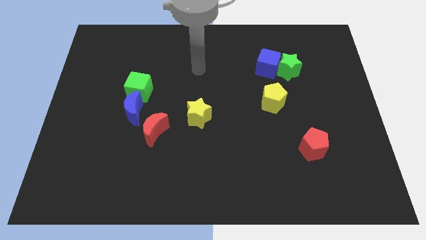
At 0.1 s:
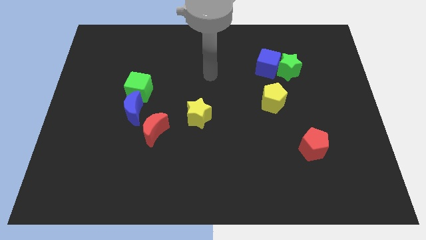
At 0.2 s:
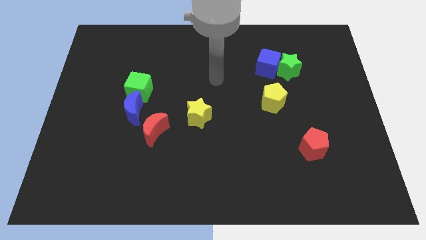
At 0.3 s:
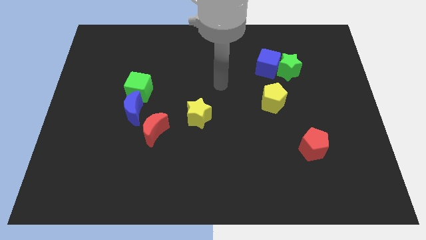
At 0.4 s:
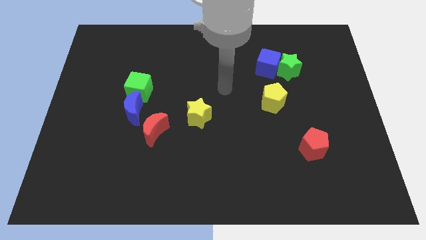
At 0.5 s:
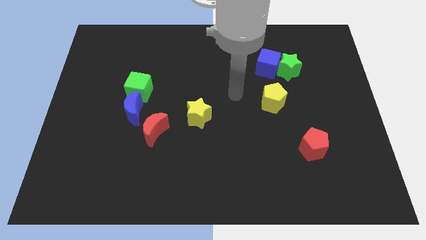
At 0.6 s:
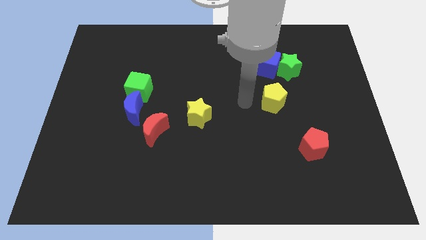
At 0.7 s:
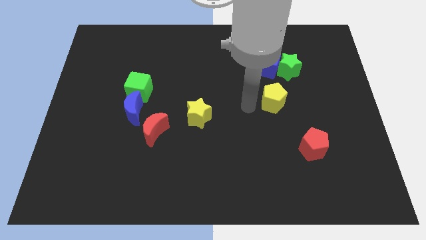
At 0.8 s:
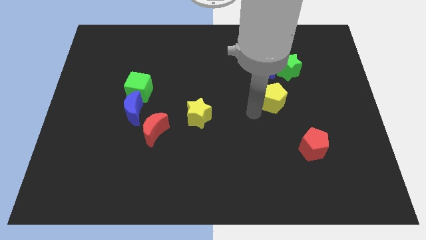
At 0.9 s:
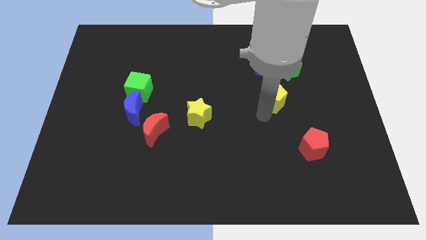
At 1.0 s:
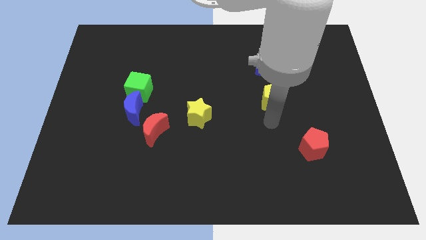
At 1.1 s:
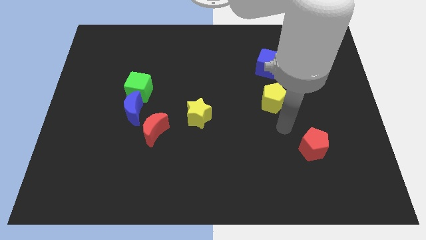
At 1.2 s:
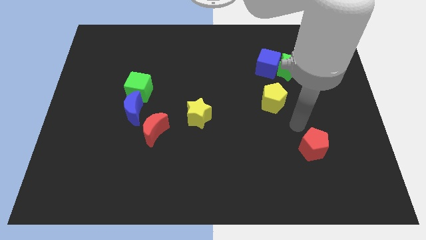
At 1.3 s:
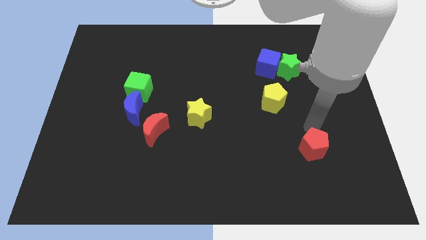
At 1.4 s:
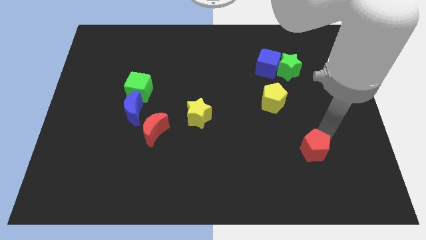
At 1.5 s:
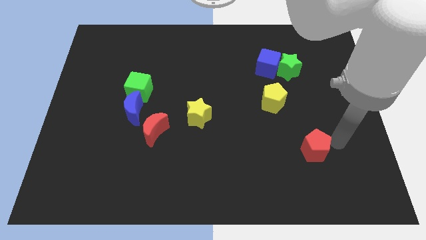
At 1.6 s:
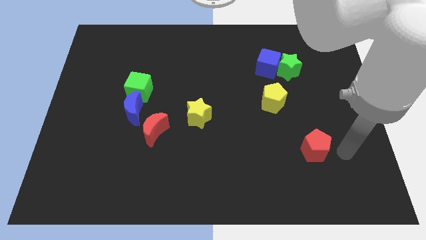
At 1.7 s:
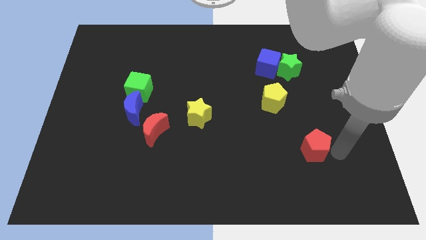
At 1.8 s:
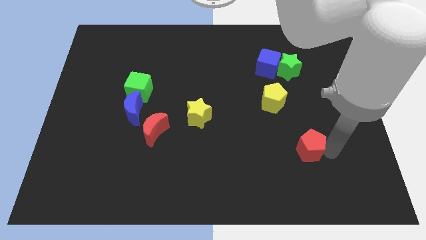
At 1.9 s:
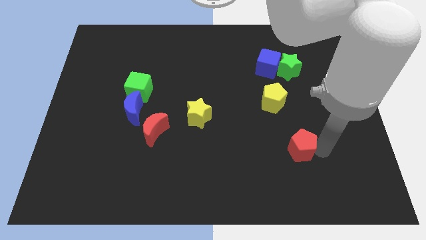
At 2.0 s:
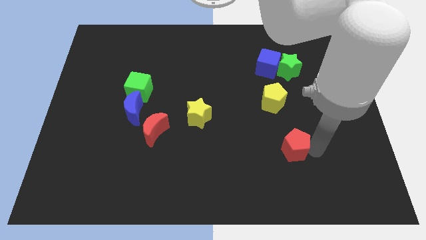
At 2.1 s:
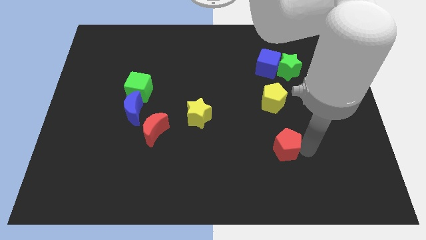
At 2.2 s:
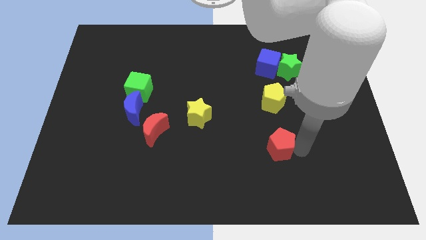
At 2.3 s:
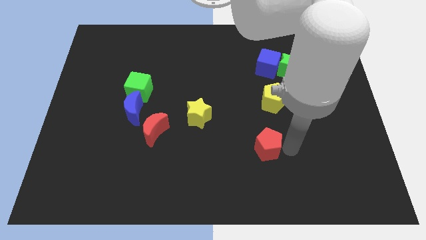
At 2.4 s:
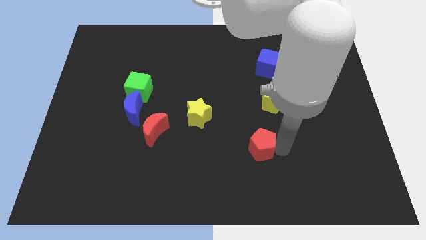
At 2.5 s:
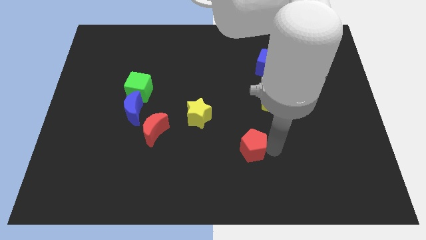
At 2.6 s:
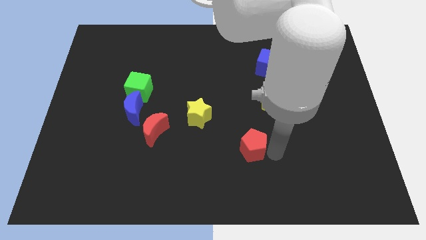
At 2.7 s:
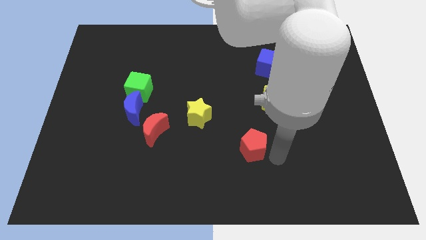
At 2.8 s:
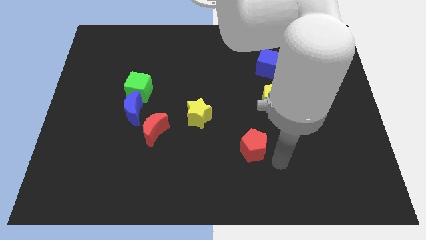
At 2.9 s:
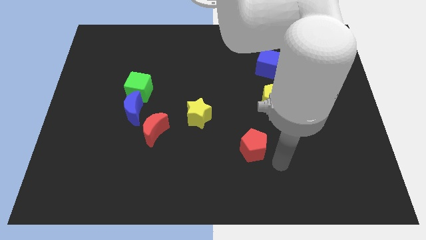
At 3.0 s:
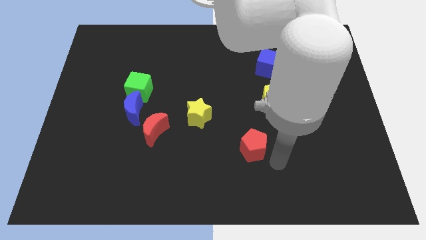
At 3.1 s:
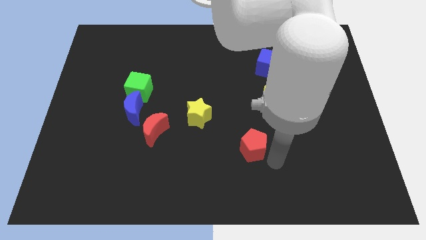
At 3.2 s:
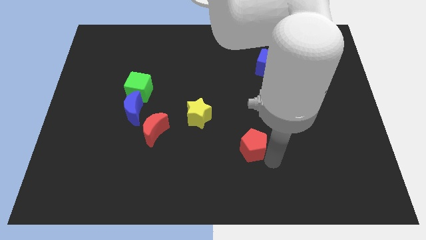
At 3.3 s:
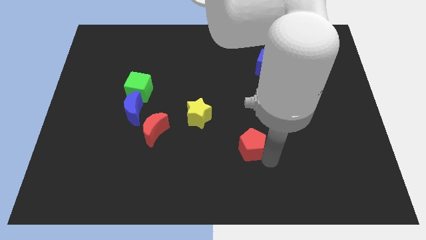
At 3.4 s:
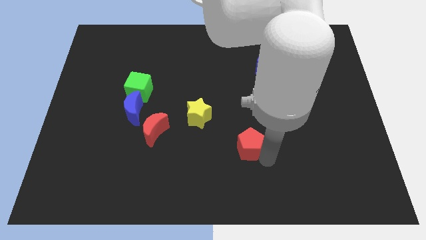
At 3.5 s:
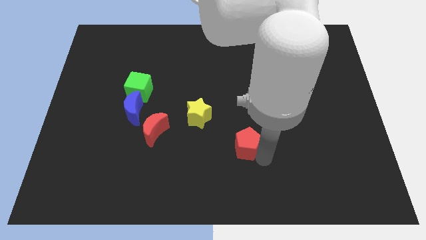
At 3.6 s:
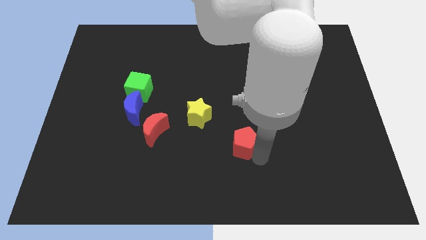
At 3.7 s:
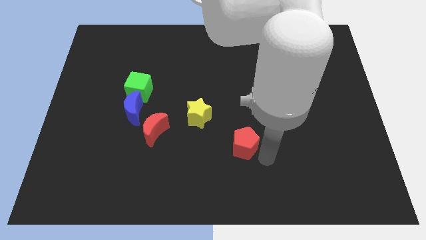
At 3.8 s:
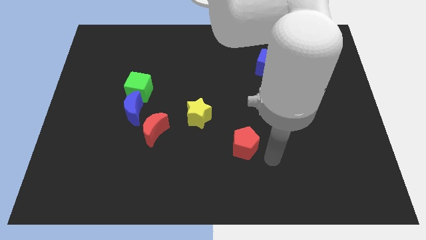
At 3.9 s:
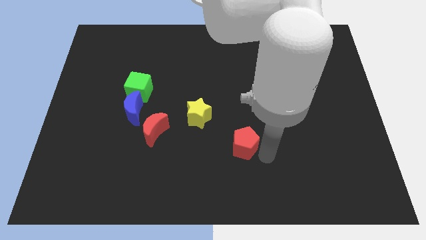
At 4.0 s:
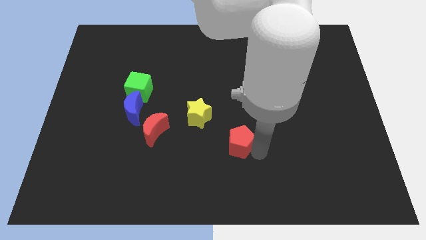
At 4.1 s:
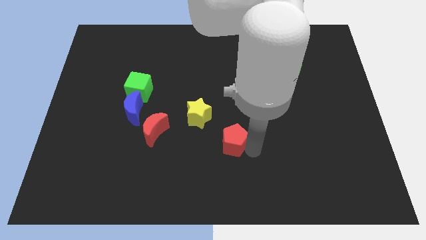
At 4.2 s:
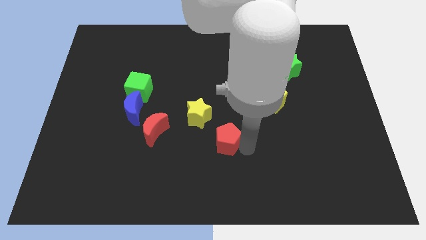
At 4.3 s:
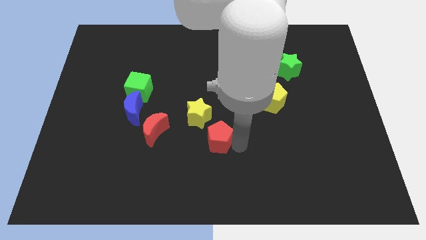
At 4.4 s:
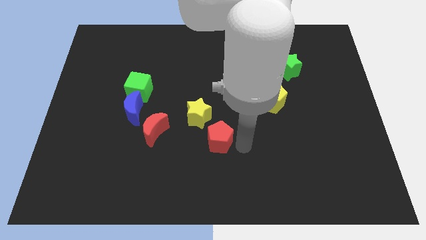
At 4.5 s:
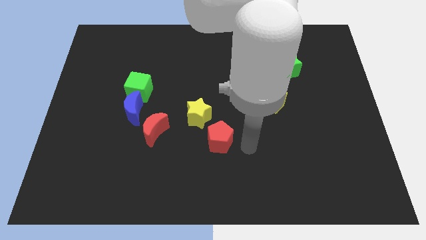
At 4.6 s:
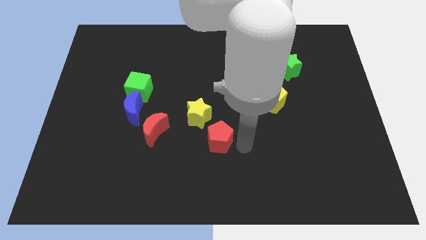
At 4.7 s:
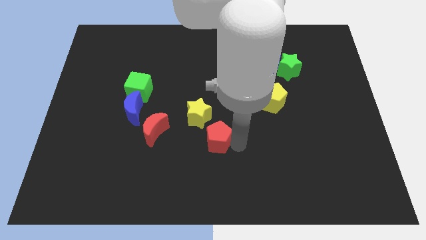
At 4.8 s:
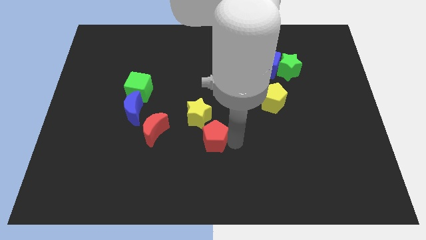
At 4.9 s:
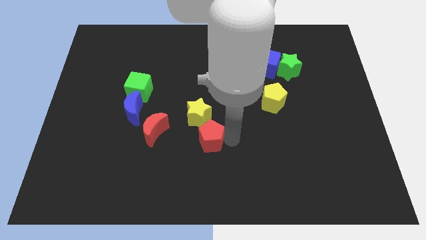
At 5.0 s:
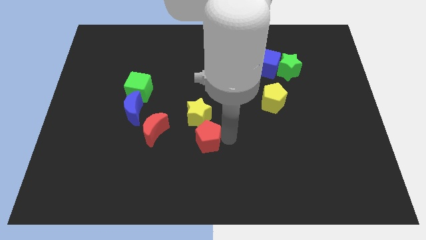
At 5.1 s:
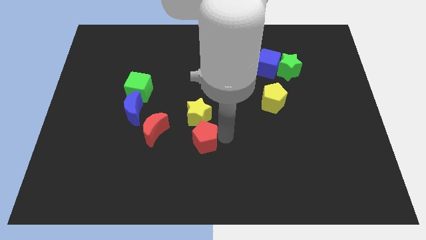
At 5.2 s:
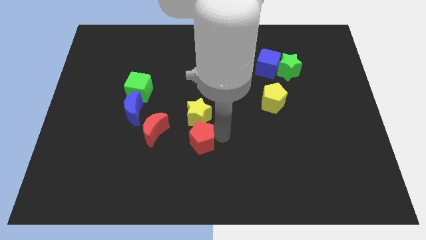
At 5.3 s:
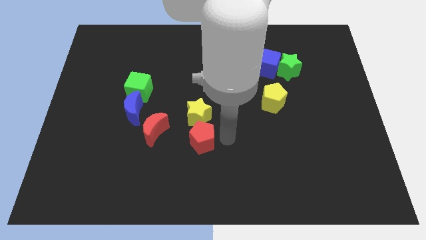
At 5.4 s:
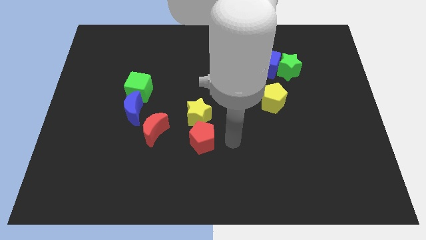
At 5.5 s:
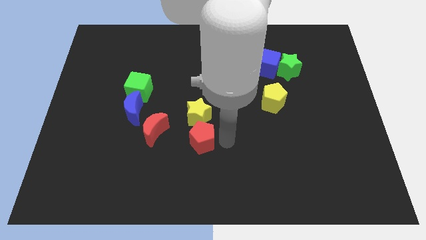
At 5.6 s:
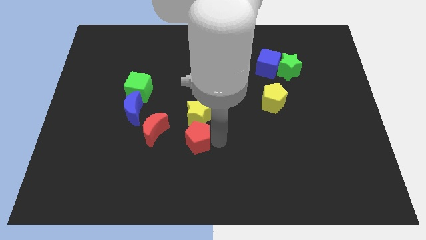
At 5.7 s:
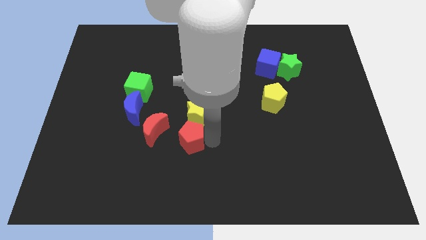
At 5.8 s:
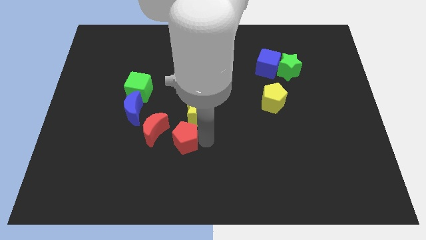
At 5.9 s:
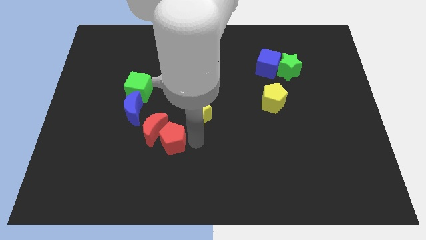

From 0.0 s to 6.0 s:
put the red pentagon close to the red moon

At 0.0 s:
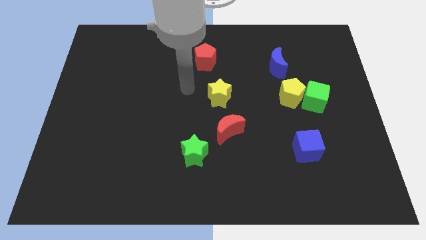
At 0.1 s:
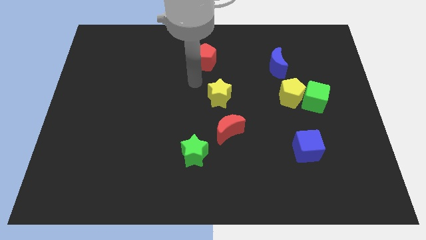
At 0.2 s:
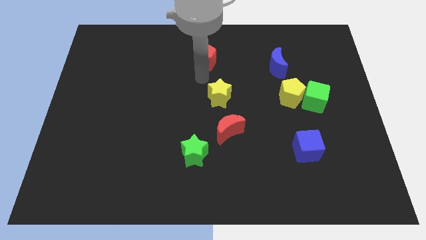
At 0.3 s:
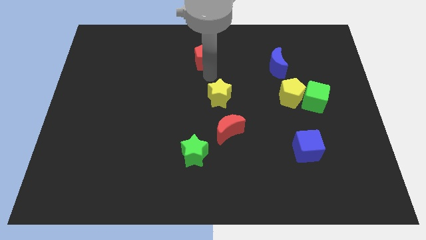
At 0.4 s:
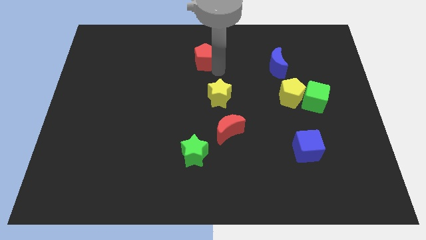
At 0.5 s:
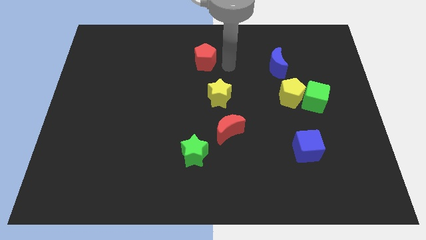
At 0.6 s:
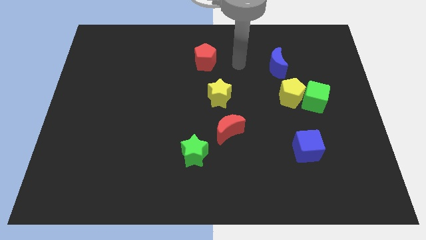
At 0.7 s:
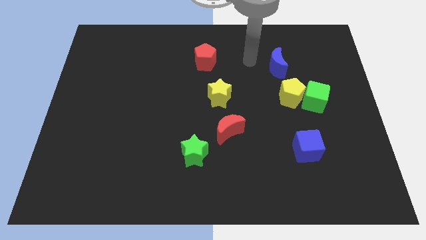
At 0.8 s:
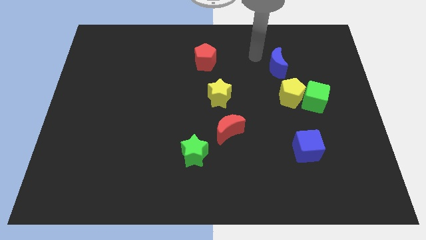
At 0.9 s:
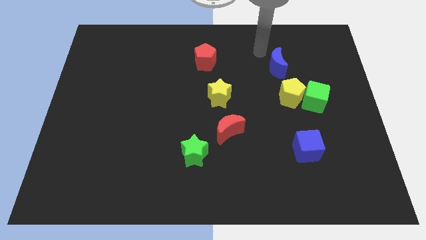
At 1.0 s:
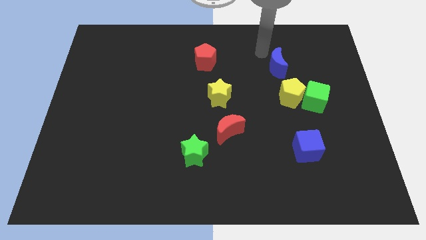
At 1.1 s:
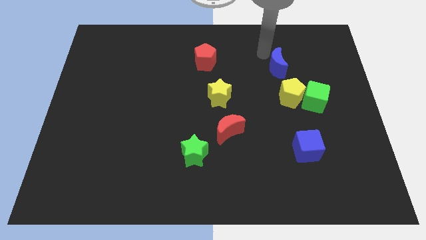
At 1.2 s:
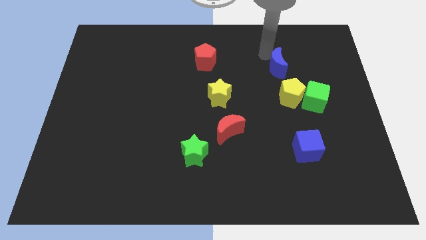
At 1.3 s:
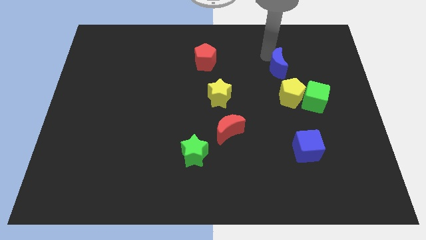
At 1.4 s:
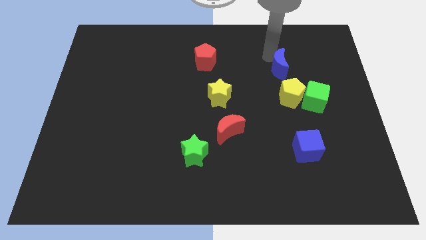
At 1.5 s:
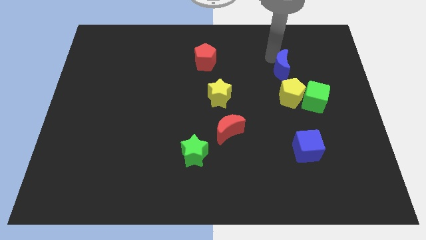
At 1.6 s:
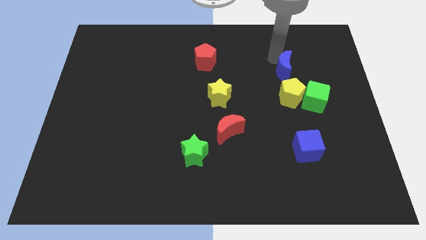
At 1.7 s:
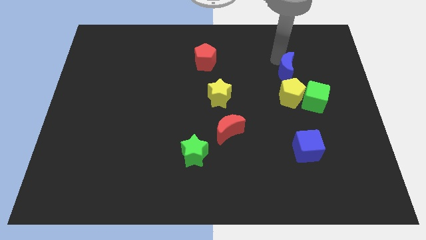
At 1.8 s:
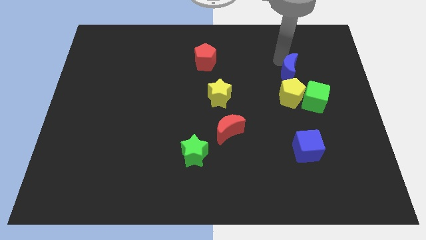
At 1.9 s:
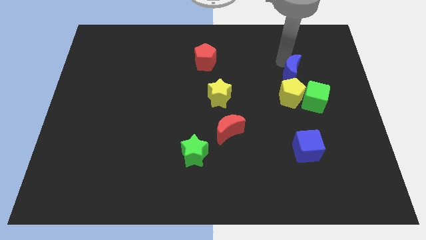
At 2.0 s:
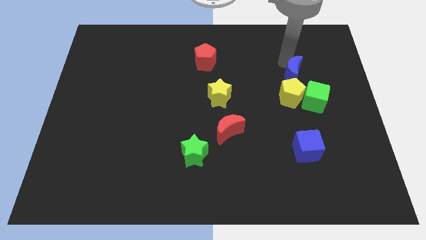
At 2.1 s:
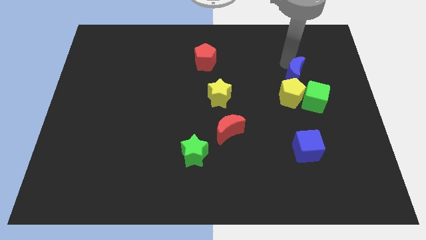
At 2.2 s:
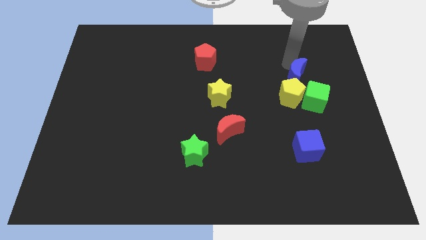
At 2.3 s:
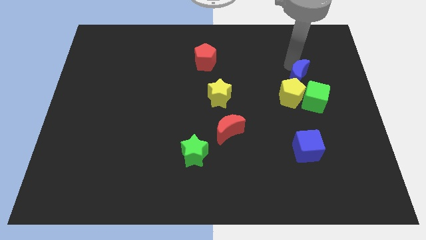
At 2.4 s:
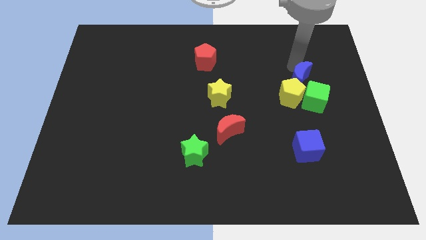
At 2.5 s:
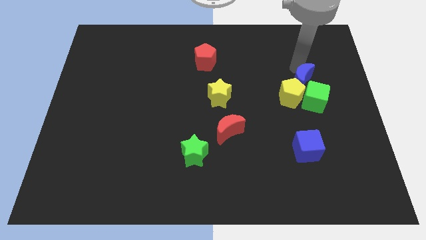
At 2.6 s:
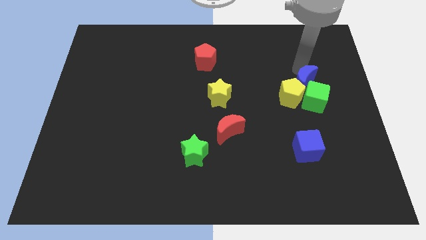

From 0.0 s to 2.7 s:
move the blue moon to the green cube
